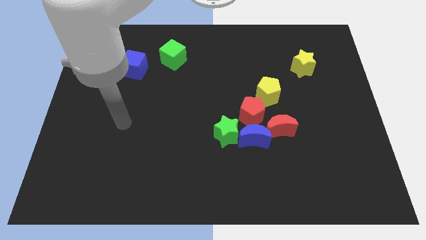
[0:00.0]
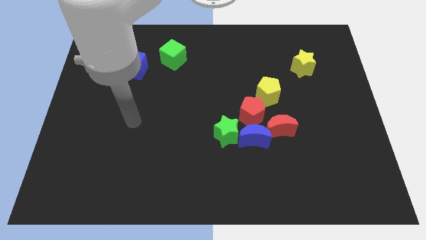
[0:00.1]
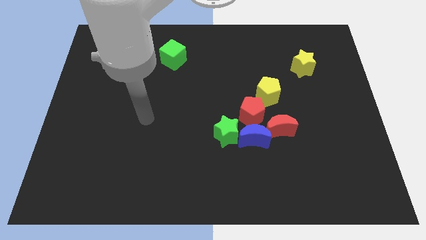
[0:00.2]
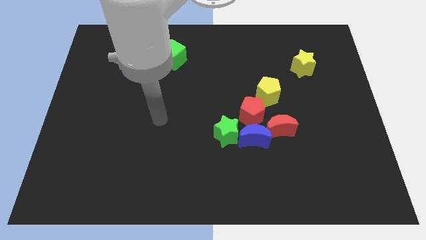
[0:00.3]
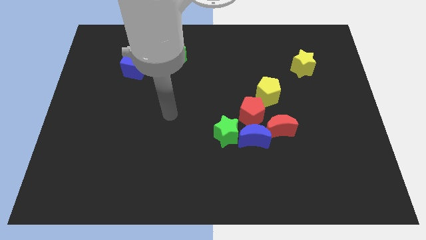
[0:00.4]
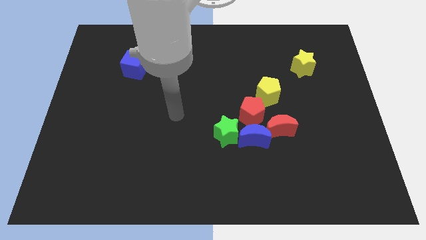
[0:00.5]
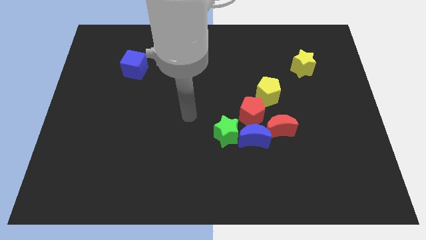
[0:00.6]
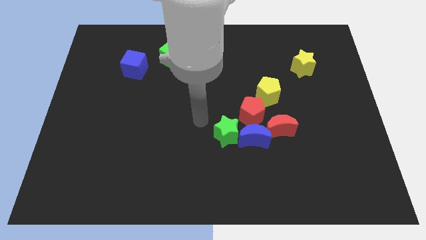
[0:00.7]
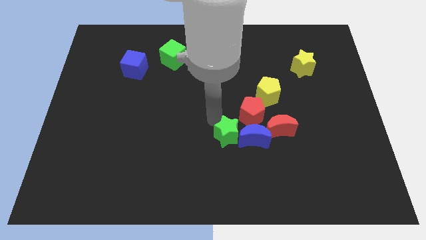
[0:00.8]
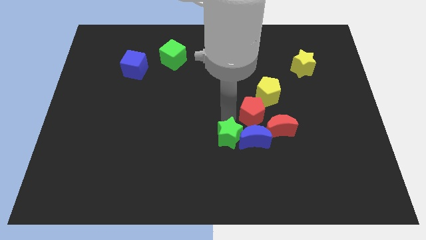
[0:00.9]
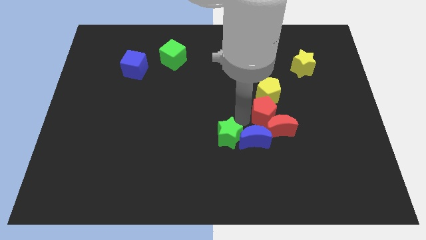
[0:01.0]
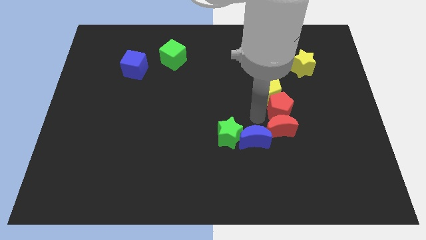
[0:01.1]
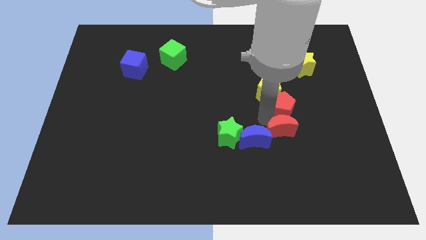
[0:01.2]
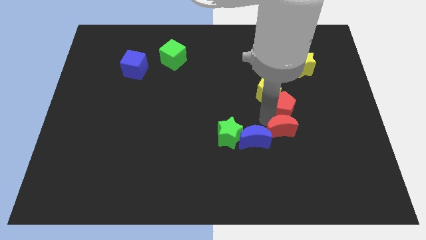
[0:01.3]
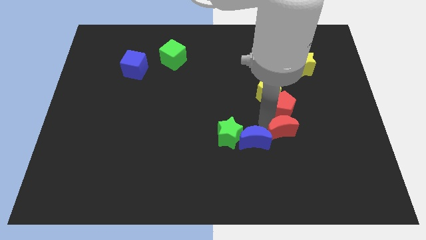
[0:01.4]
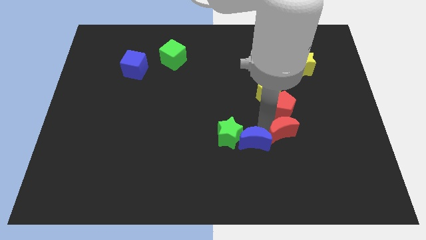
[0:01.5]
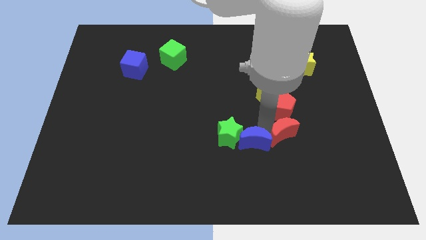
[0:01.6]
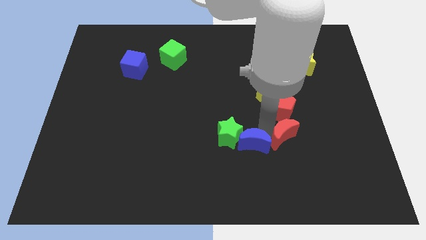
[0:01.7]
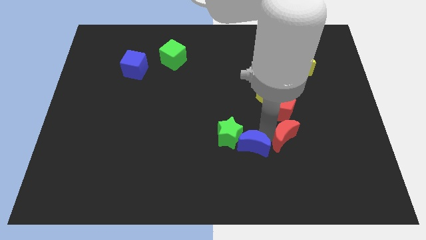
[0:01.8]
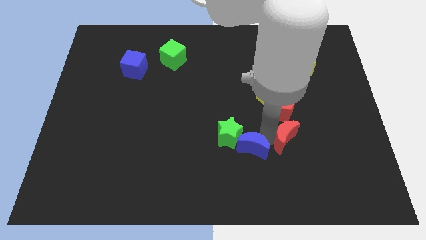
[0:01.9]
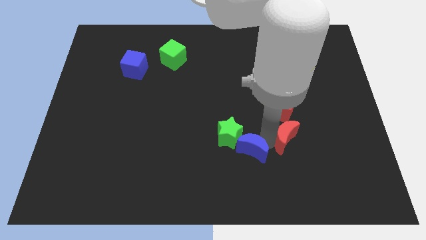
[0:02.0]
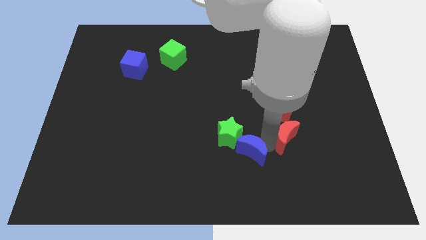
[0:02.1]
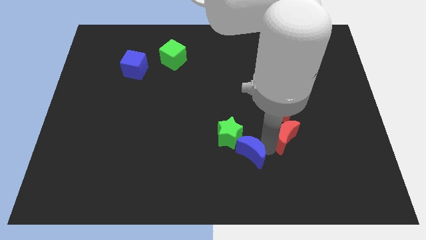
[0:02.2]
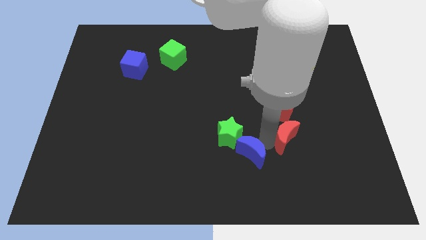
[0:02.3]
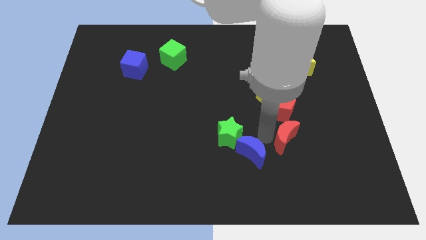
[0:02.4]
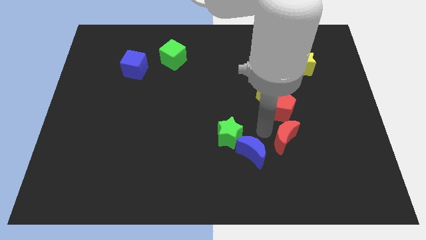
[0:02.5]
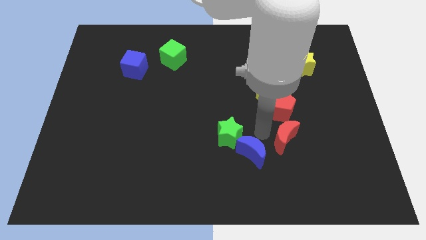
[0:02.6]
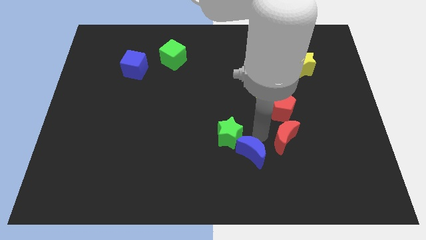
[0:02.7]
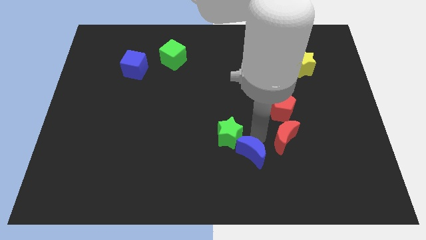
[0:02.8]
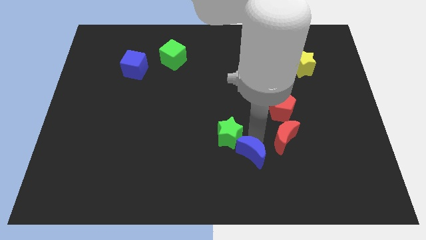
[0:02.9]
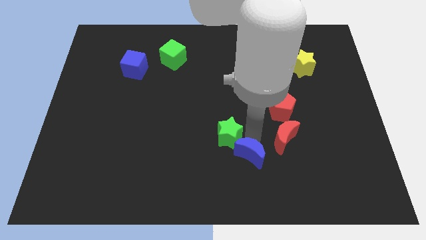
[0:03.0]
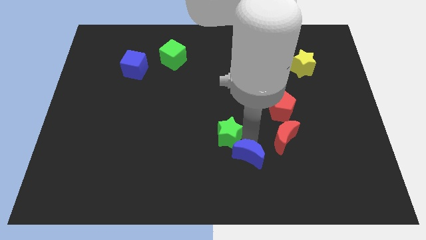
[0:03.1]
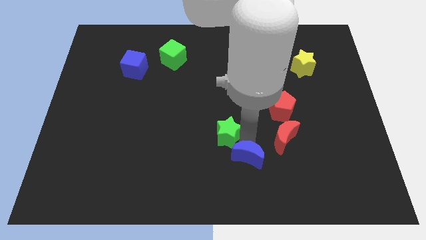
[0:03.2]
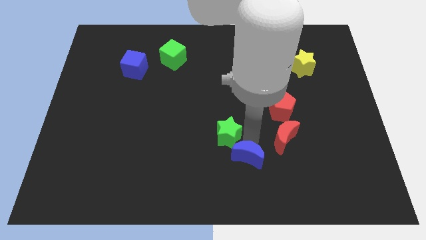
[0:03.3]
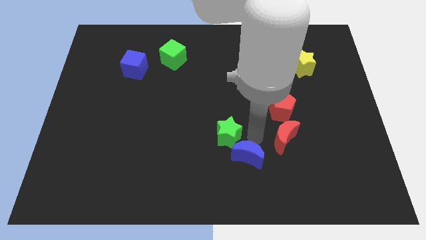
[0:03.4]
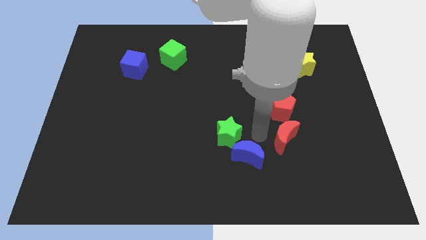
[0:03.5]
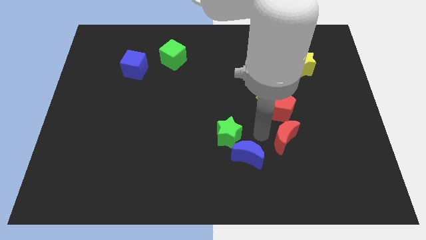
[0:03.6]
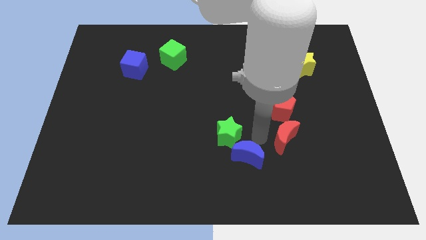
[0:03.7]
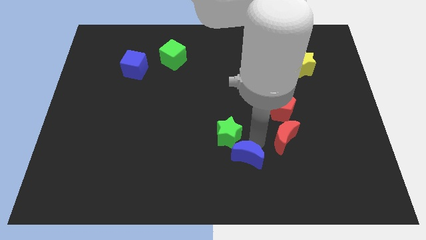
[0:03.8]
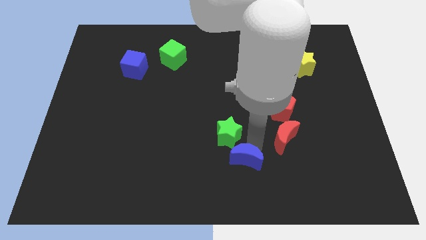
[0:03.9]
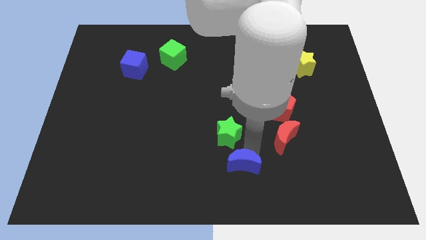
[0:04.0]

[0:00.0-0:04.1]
pull the blue moon apart from the green star, red moon, and red pentagon

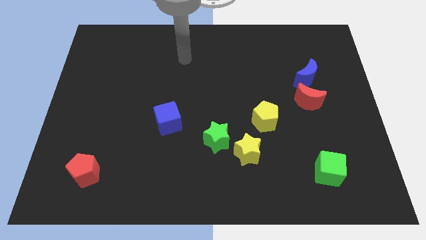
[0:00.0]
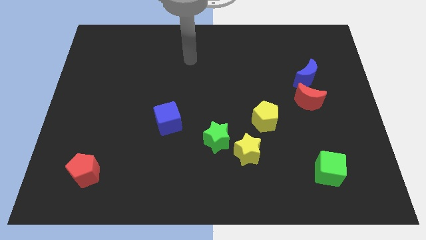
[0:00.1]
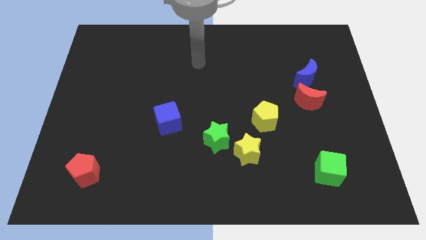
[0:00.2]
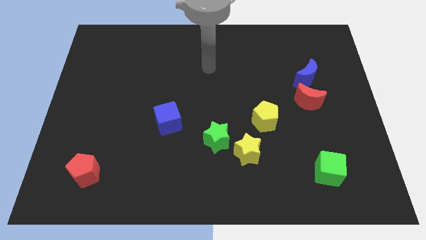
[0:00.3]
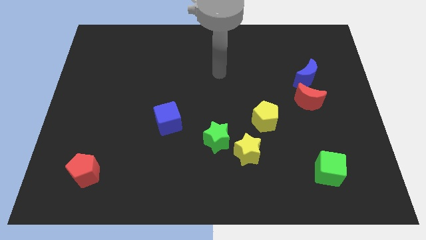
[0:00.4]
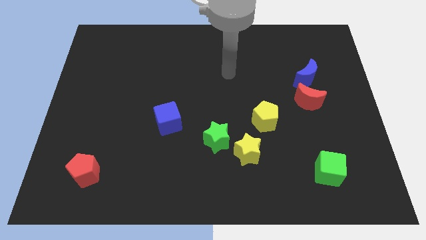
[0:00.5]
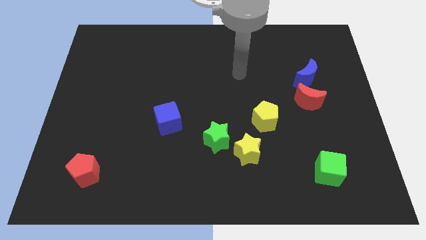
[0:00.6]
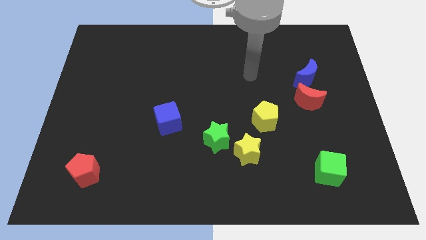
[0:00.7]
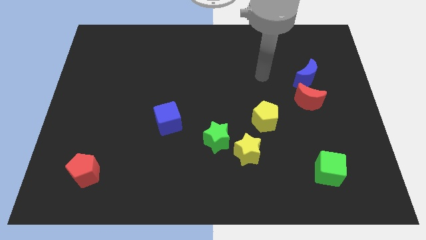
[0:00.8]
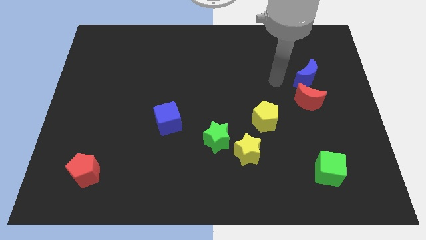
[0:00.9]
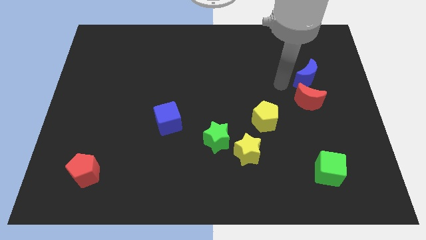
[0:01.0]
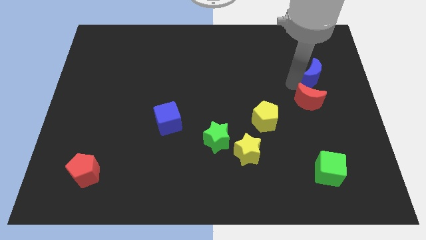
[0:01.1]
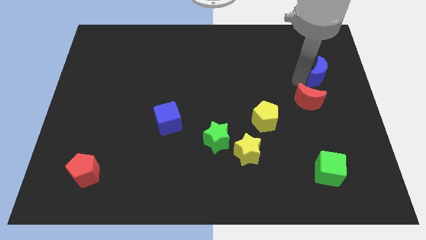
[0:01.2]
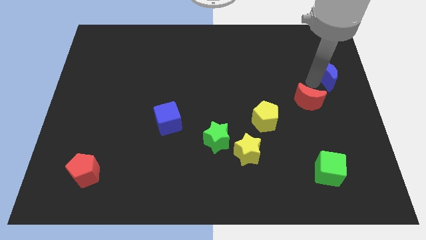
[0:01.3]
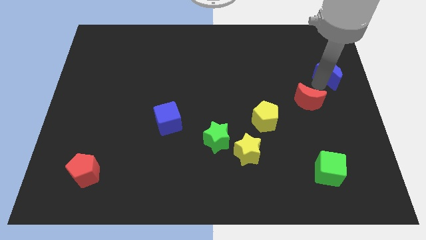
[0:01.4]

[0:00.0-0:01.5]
move the red moon away from the blue moon

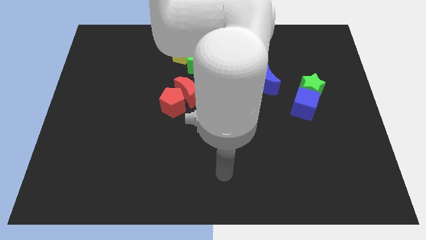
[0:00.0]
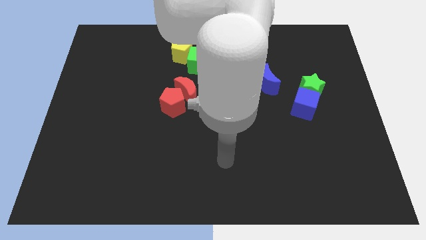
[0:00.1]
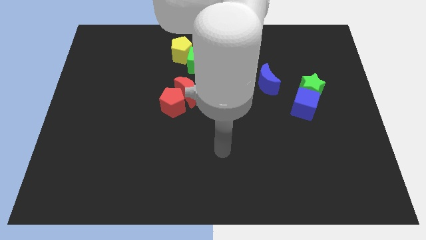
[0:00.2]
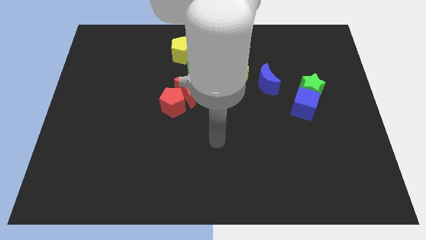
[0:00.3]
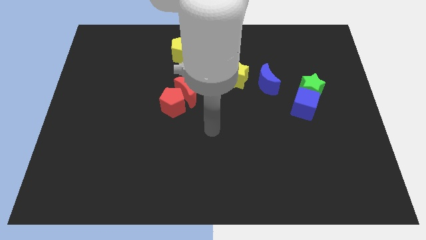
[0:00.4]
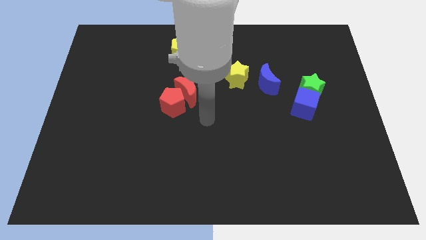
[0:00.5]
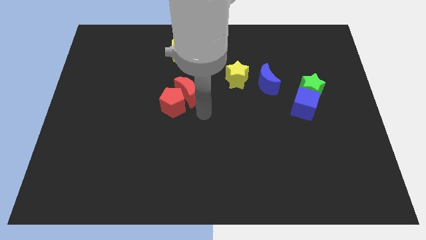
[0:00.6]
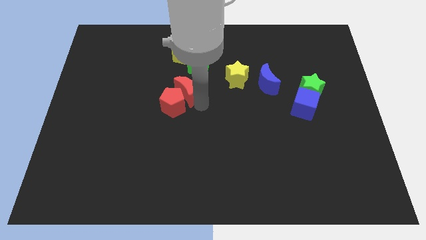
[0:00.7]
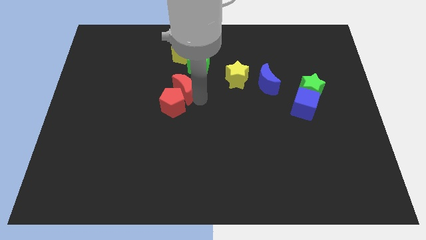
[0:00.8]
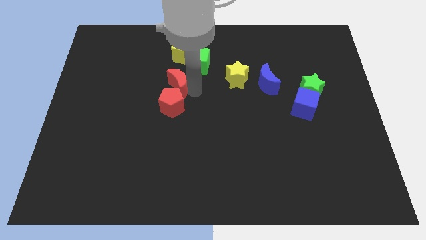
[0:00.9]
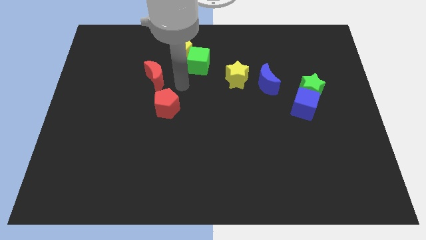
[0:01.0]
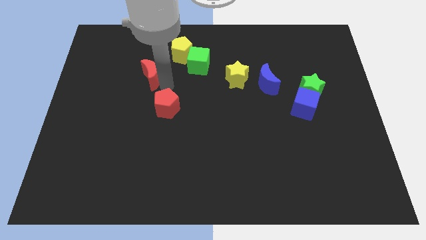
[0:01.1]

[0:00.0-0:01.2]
separate the red pentagon from the red moon

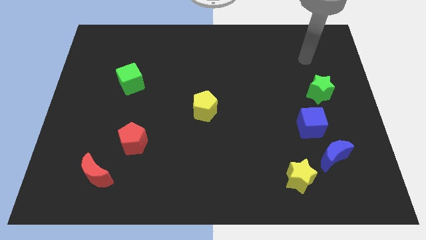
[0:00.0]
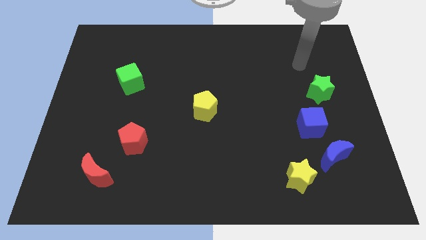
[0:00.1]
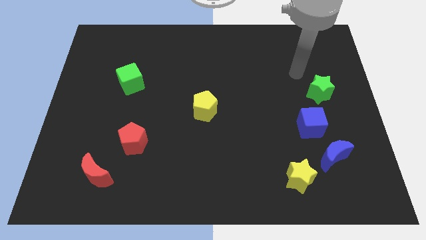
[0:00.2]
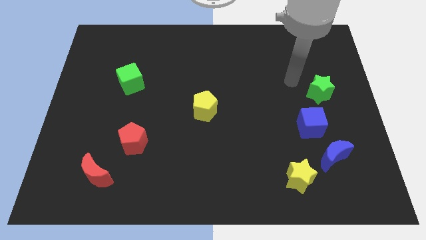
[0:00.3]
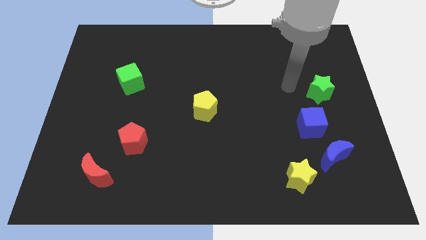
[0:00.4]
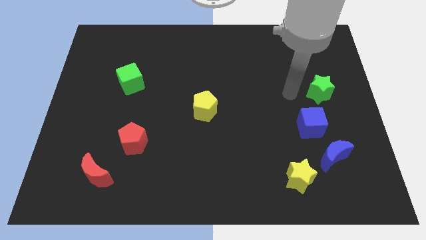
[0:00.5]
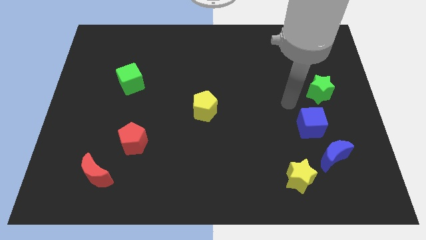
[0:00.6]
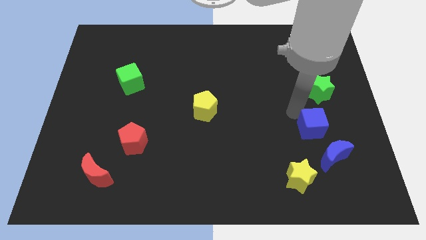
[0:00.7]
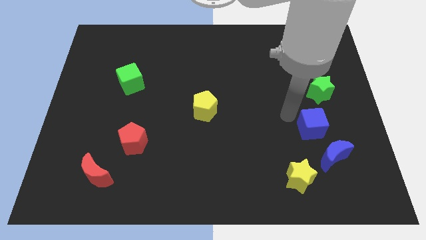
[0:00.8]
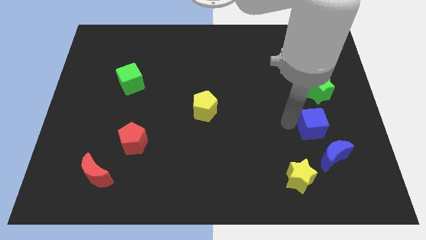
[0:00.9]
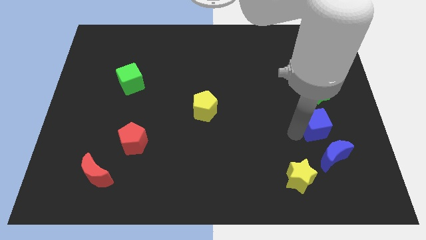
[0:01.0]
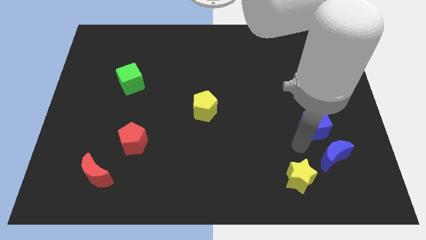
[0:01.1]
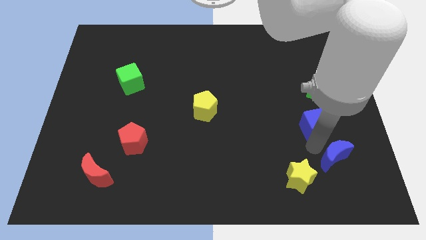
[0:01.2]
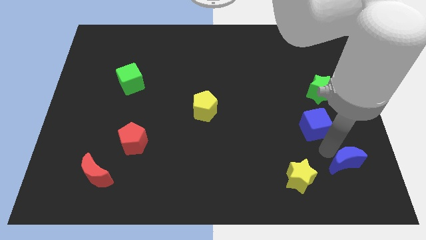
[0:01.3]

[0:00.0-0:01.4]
separate the blue cube from the blue moon
